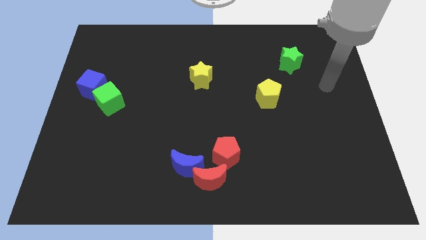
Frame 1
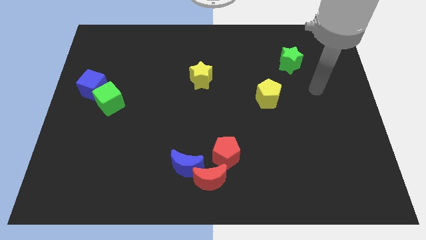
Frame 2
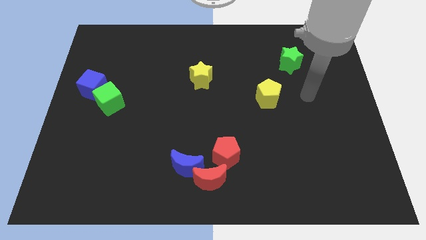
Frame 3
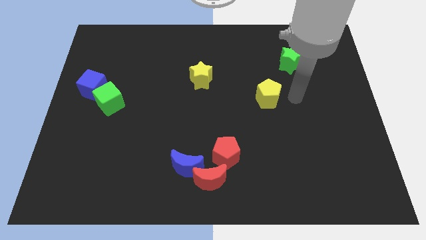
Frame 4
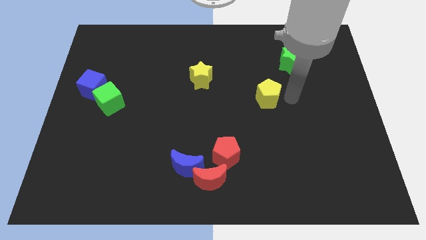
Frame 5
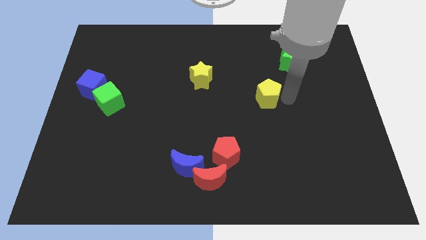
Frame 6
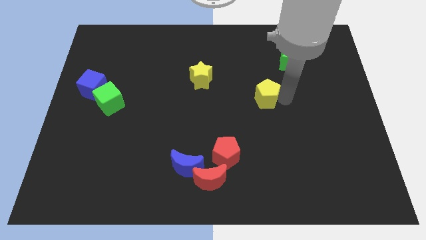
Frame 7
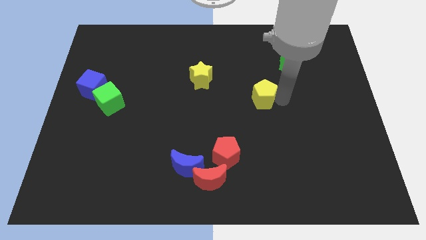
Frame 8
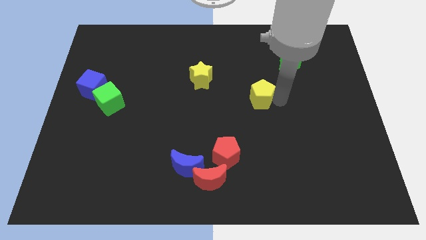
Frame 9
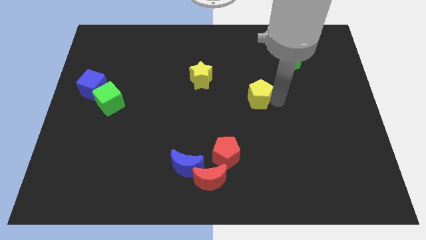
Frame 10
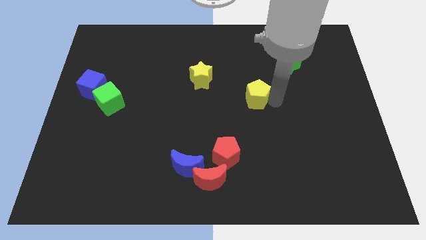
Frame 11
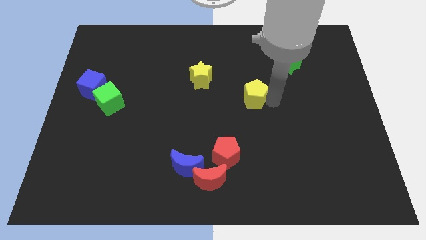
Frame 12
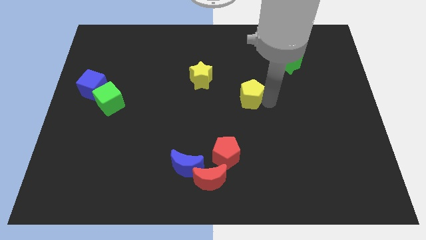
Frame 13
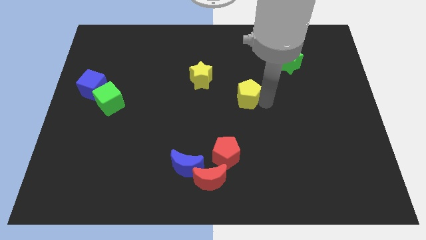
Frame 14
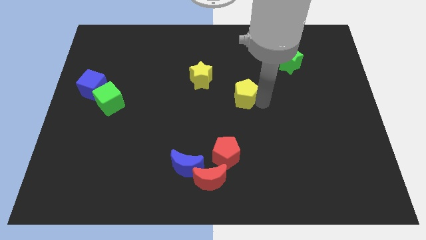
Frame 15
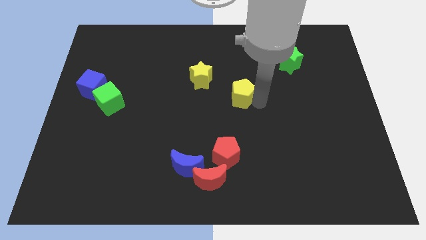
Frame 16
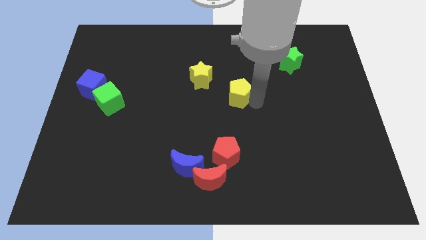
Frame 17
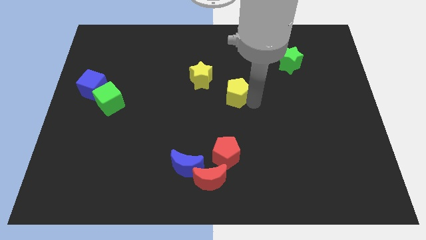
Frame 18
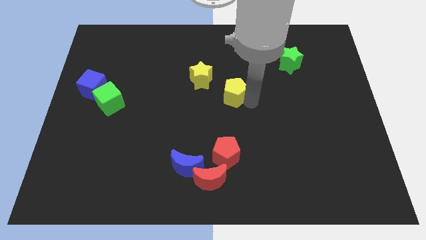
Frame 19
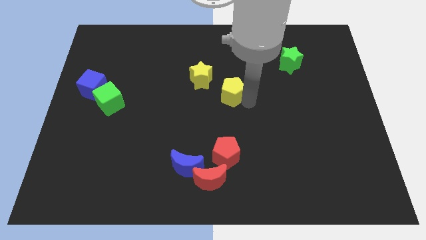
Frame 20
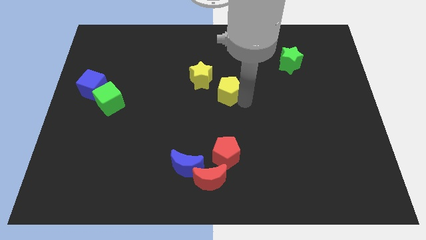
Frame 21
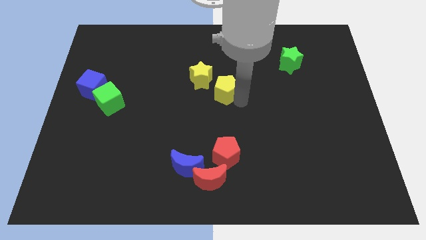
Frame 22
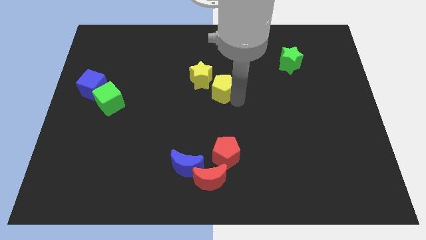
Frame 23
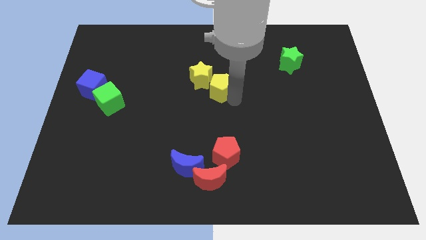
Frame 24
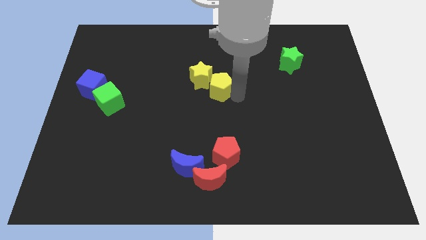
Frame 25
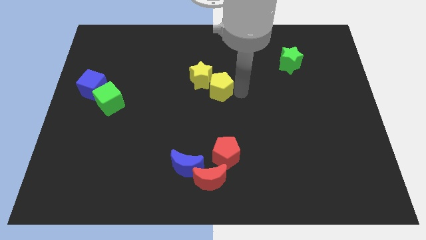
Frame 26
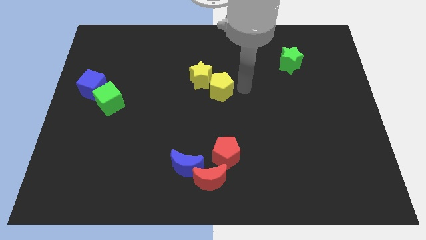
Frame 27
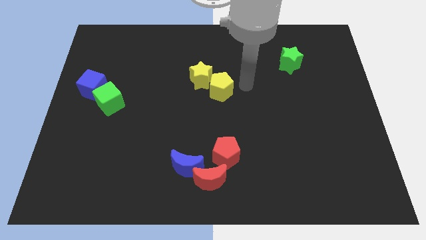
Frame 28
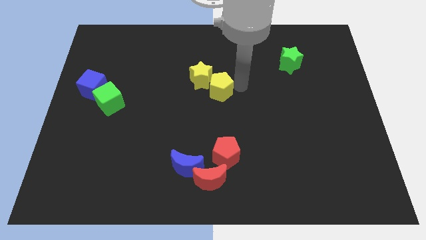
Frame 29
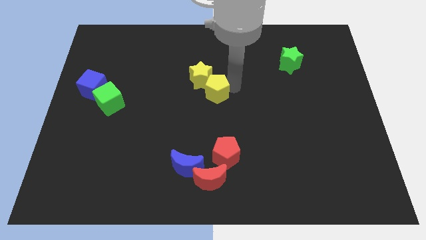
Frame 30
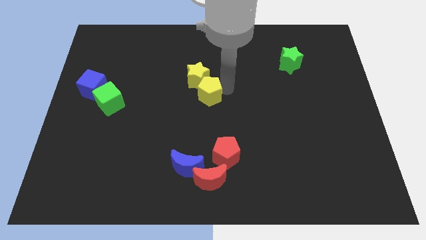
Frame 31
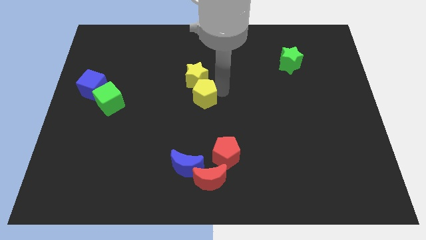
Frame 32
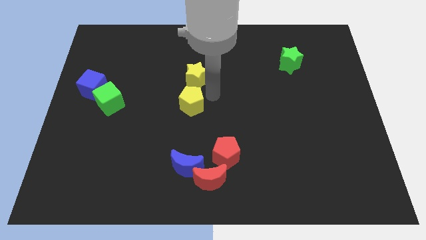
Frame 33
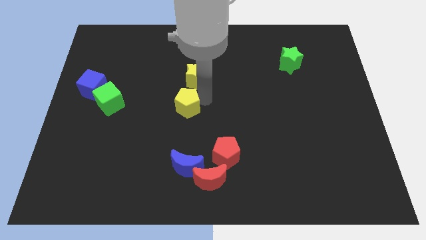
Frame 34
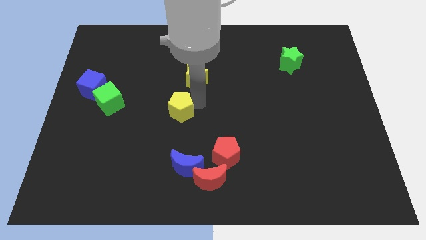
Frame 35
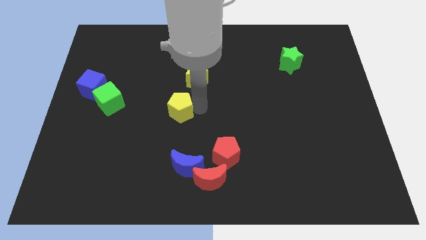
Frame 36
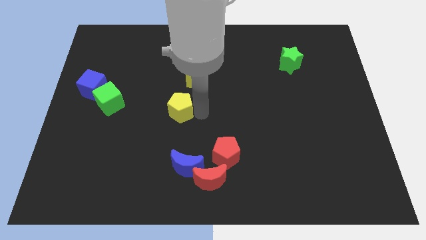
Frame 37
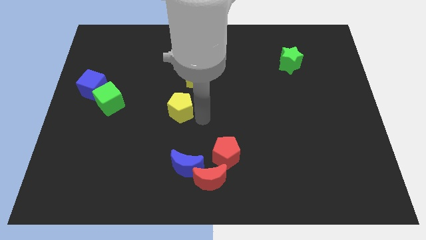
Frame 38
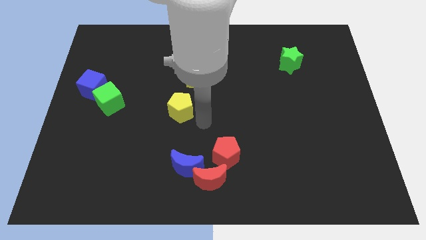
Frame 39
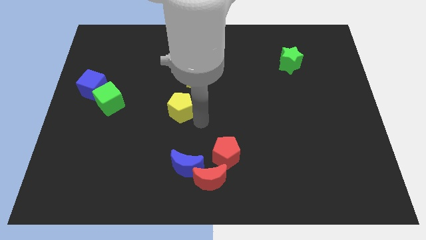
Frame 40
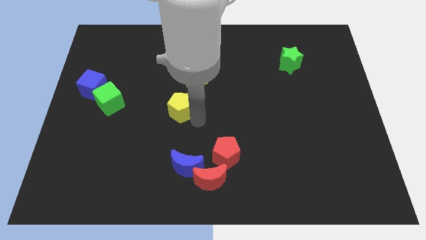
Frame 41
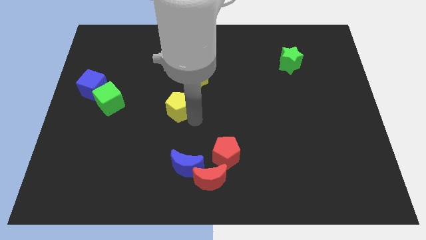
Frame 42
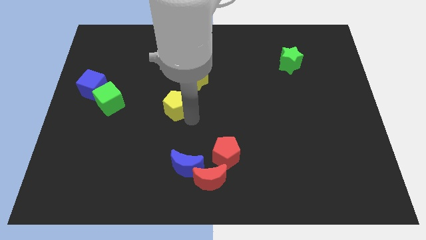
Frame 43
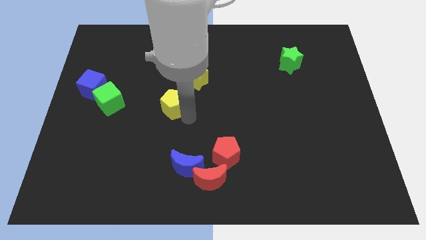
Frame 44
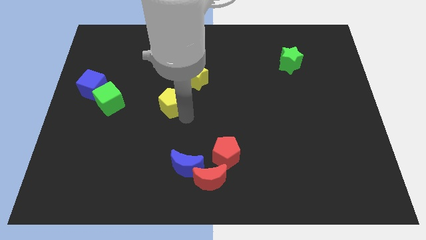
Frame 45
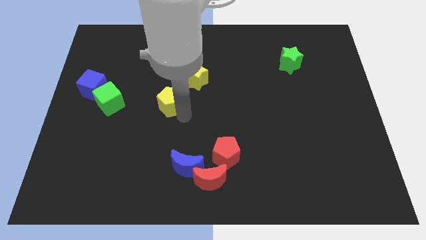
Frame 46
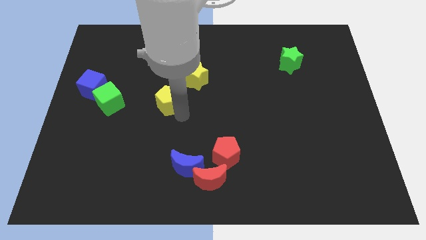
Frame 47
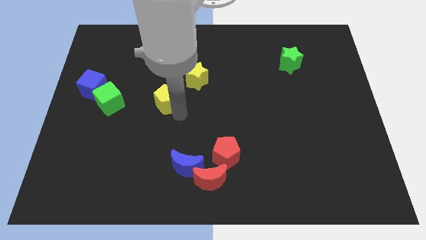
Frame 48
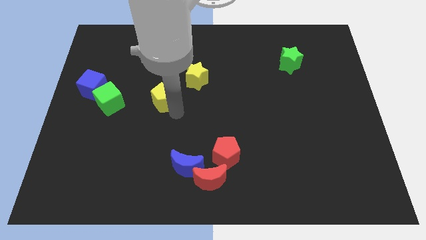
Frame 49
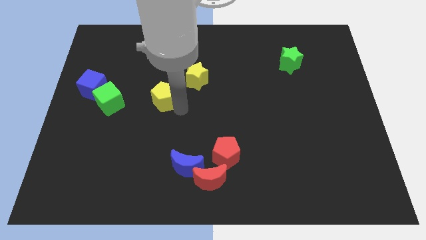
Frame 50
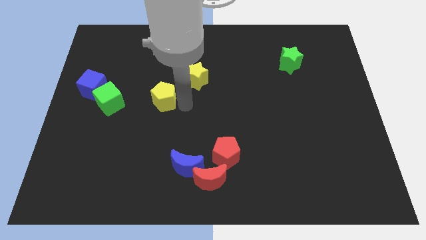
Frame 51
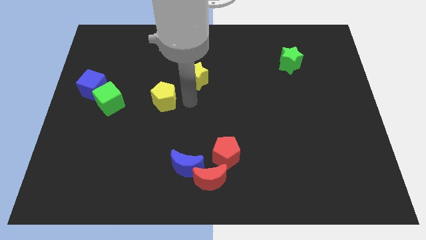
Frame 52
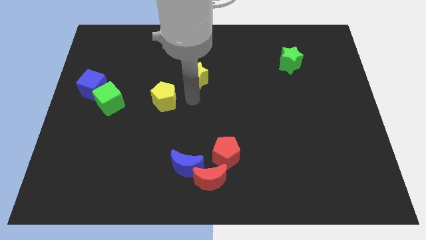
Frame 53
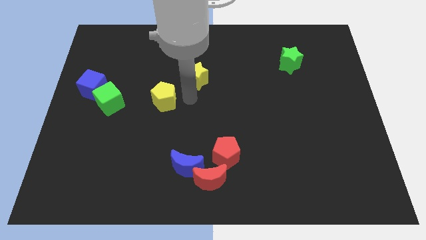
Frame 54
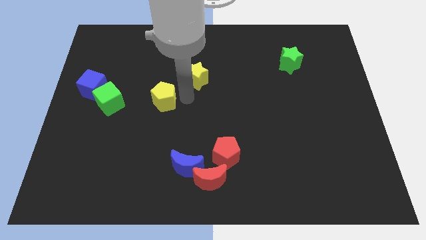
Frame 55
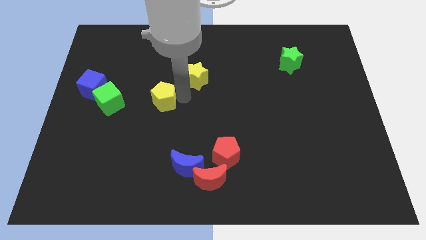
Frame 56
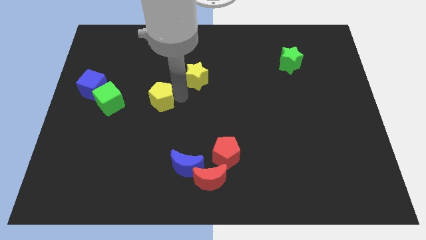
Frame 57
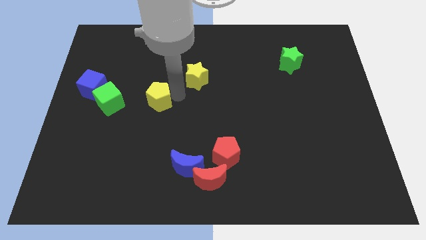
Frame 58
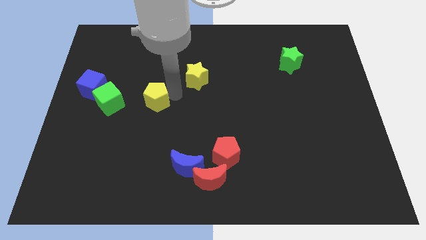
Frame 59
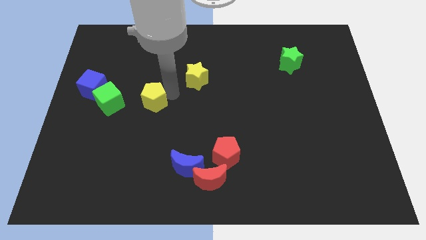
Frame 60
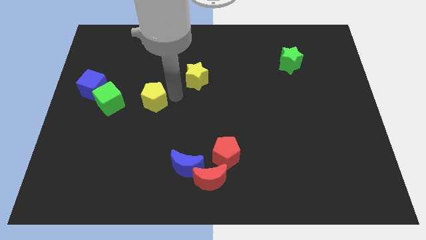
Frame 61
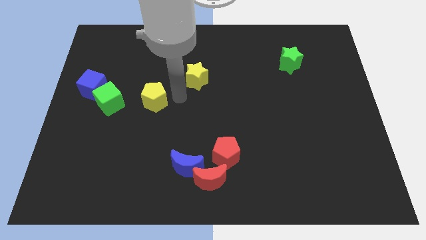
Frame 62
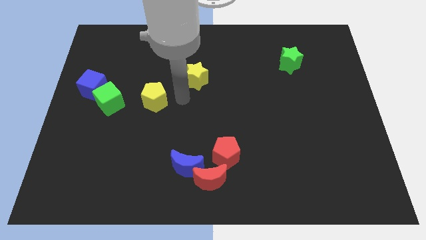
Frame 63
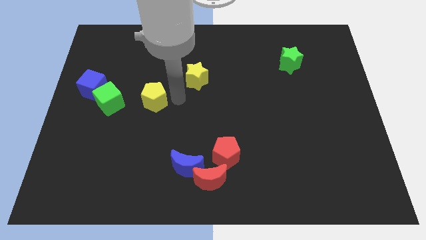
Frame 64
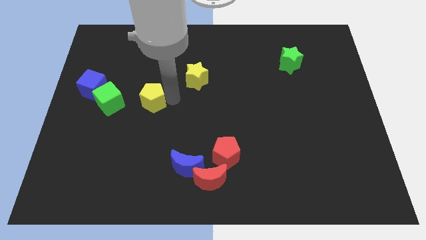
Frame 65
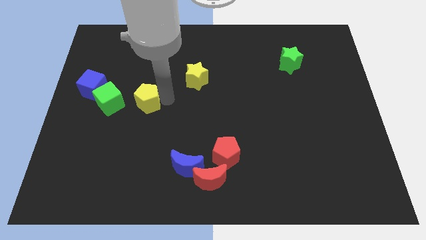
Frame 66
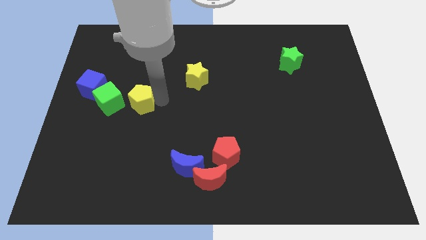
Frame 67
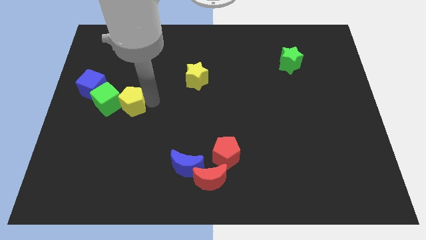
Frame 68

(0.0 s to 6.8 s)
slide the yellow pentagon next to the green cube

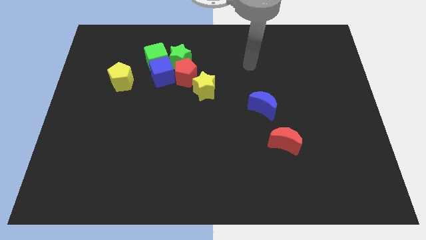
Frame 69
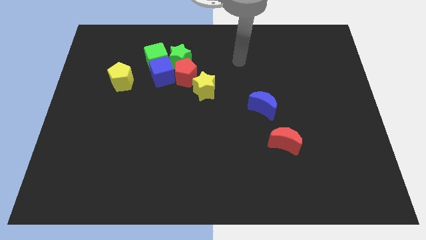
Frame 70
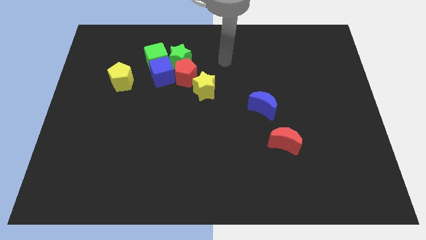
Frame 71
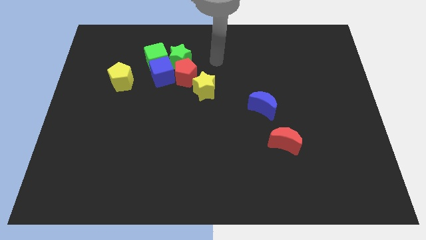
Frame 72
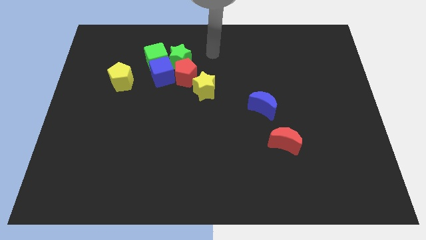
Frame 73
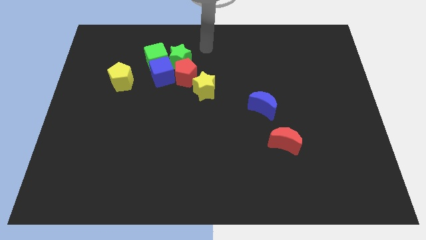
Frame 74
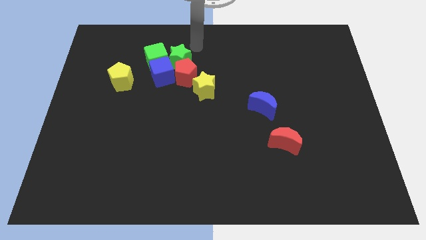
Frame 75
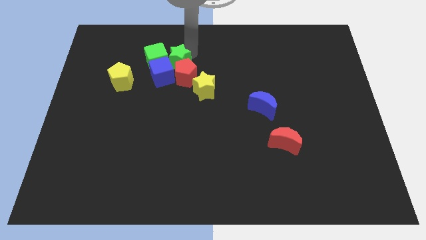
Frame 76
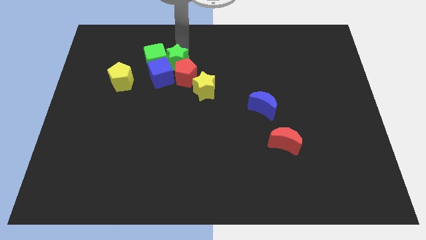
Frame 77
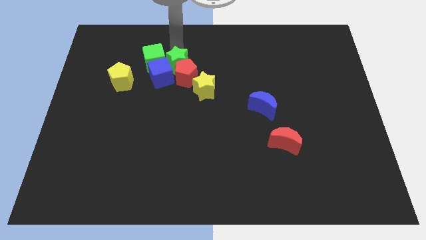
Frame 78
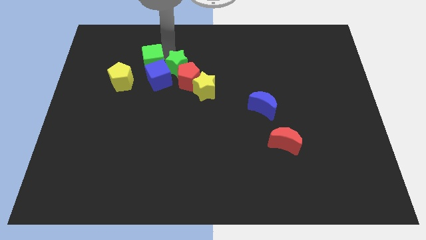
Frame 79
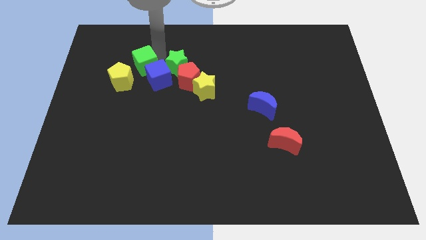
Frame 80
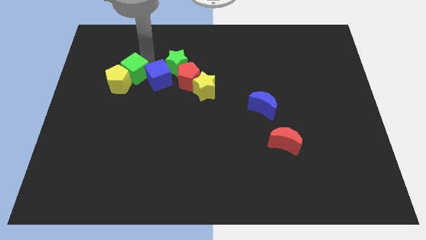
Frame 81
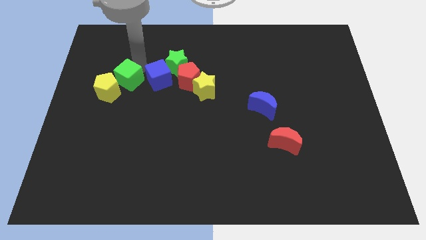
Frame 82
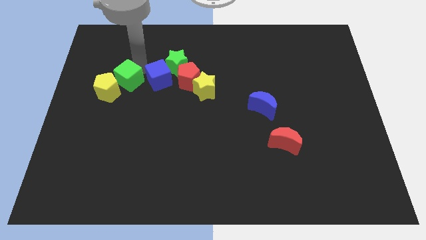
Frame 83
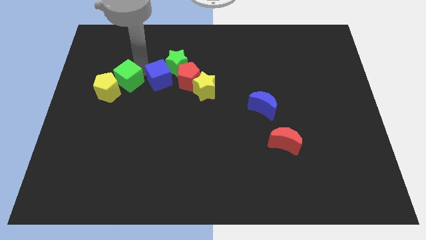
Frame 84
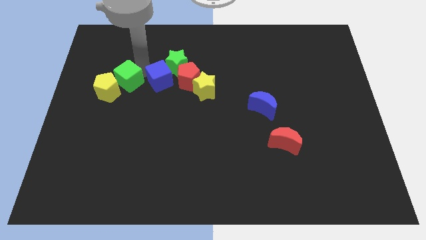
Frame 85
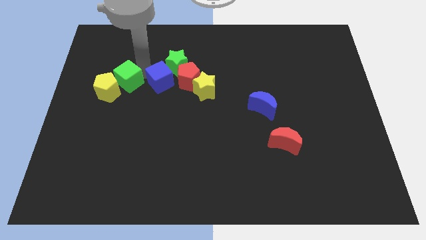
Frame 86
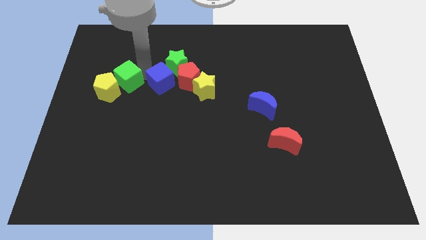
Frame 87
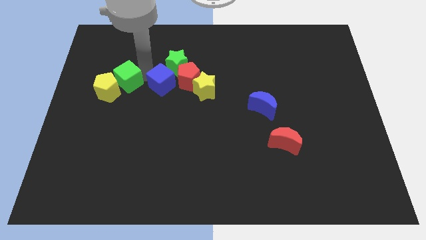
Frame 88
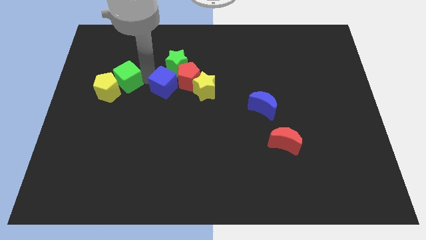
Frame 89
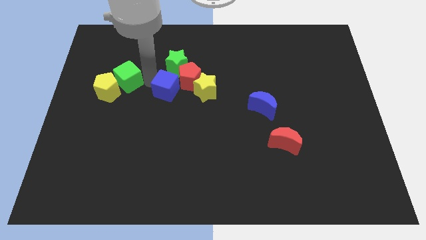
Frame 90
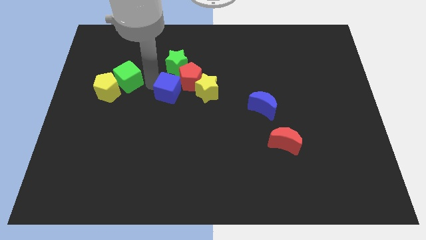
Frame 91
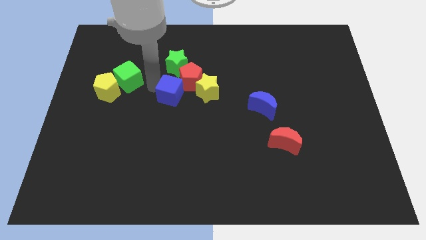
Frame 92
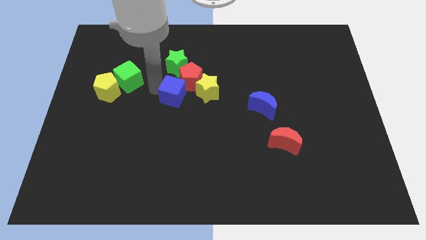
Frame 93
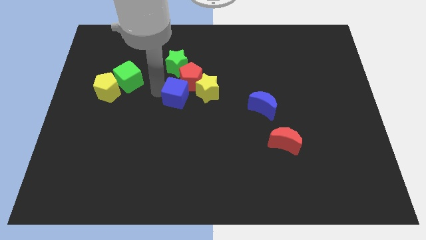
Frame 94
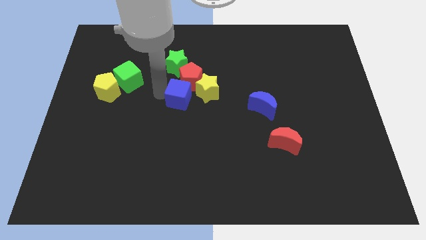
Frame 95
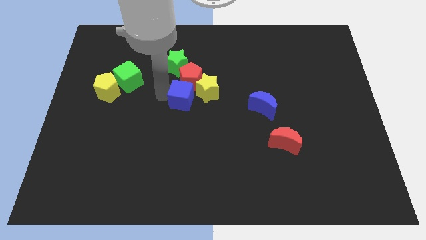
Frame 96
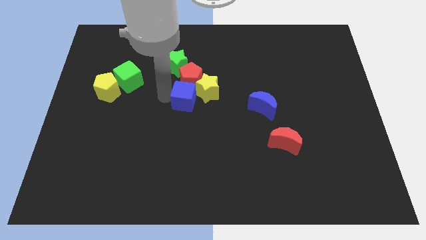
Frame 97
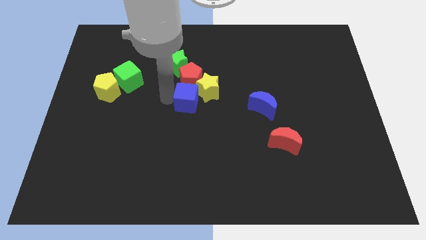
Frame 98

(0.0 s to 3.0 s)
slide the blue cube next to the yellow star
